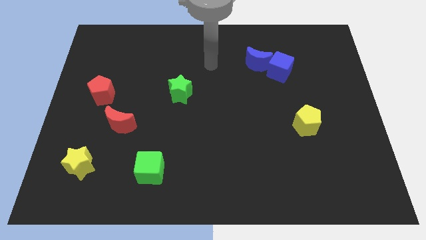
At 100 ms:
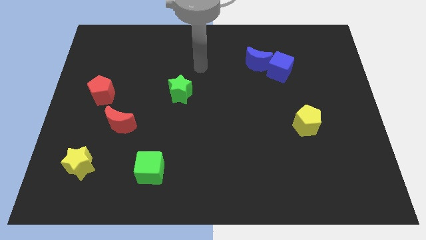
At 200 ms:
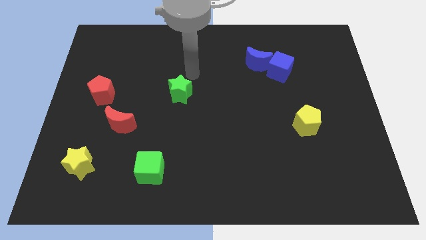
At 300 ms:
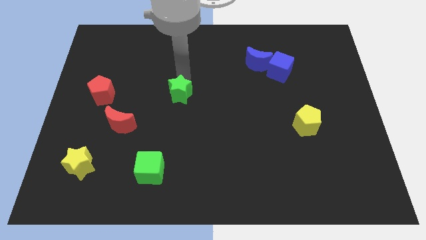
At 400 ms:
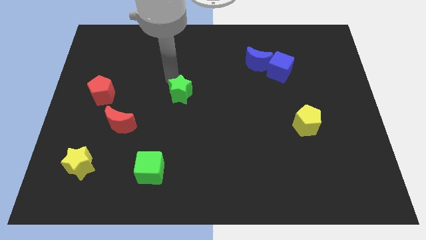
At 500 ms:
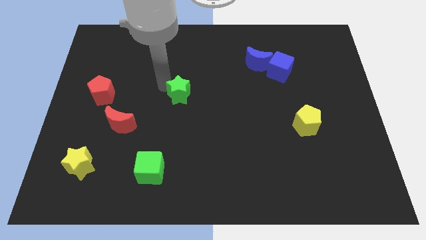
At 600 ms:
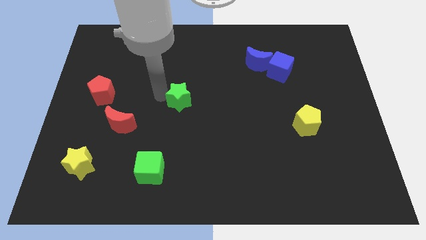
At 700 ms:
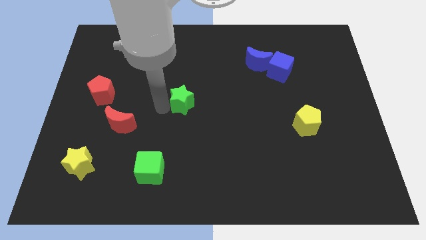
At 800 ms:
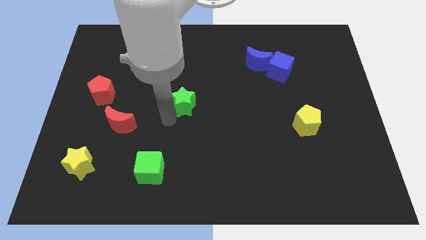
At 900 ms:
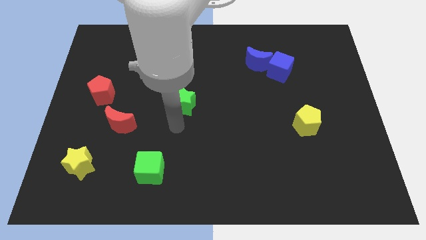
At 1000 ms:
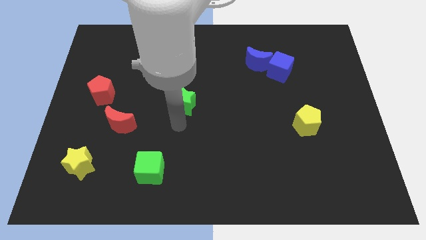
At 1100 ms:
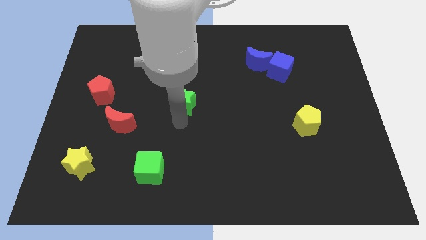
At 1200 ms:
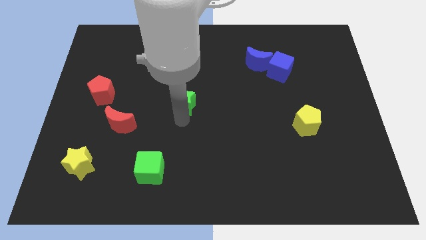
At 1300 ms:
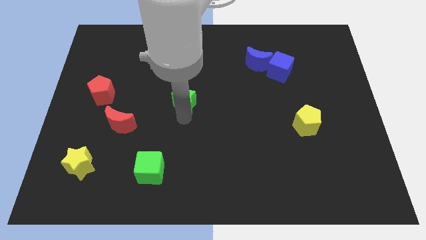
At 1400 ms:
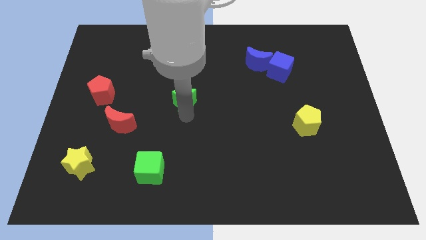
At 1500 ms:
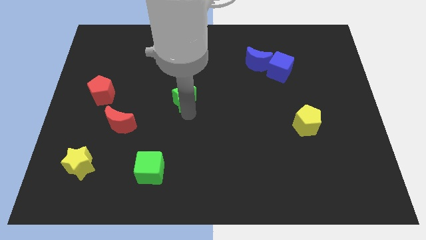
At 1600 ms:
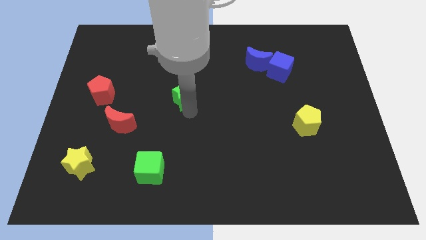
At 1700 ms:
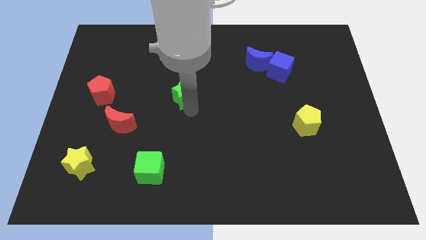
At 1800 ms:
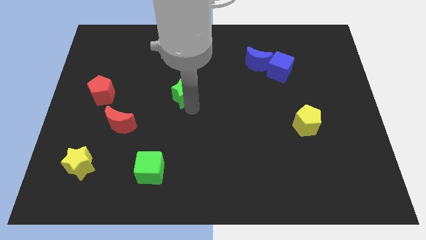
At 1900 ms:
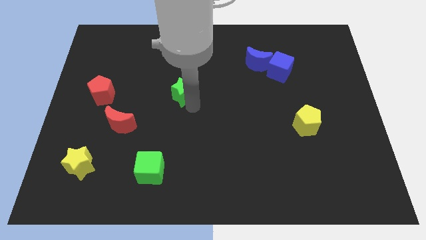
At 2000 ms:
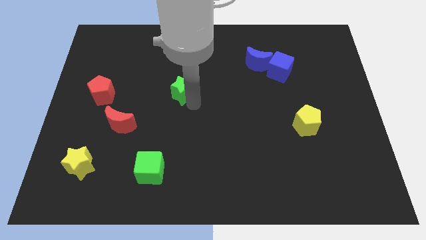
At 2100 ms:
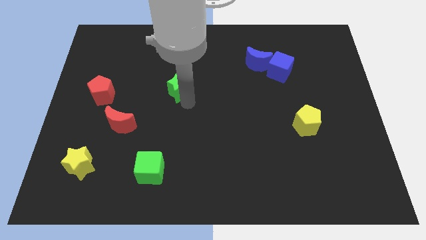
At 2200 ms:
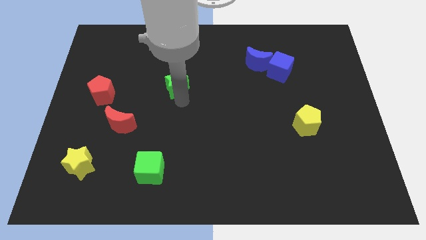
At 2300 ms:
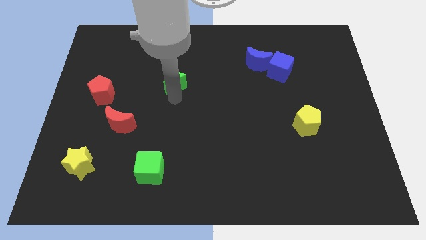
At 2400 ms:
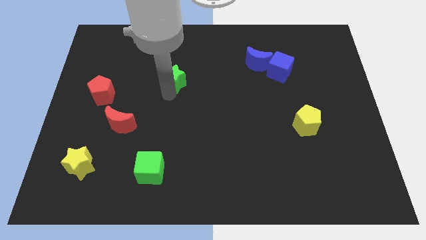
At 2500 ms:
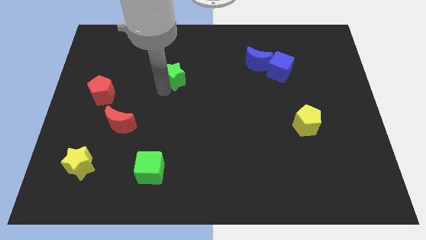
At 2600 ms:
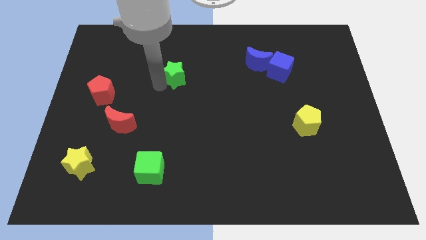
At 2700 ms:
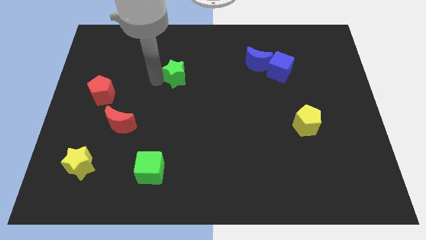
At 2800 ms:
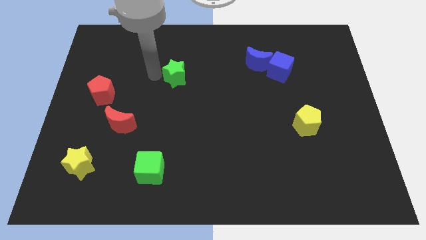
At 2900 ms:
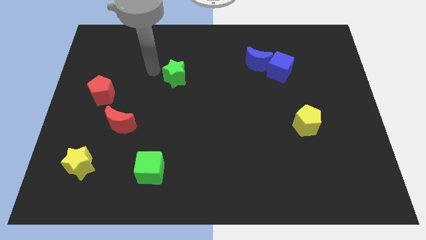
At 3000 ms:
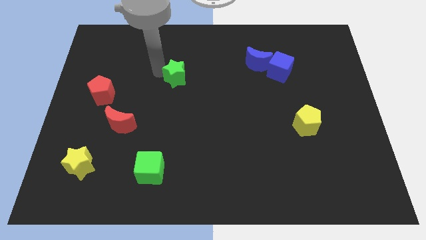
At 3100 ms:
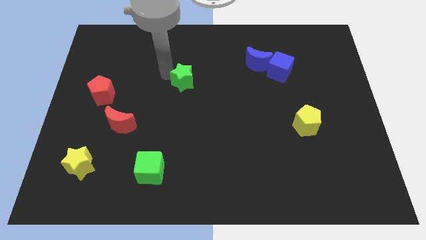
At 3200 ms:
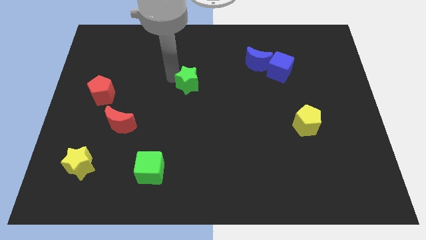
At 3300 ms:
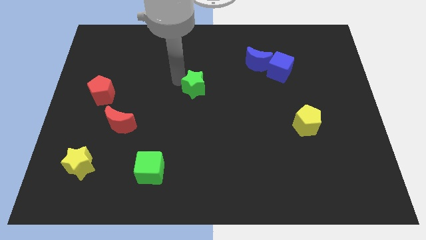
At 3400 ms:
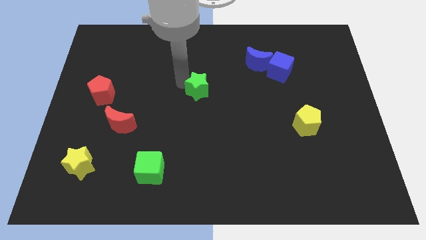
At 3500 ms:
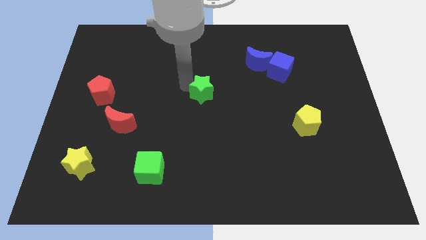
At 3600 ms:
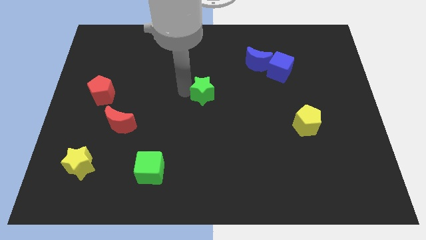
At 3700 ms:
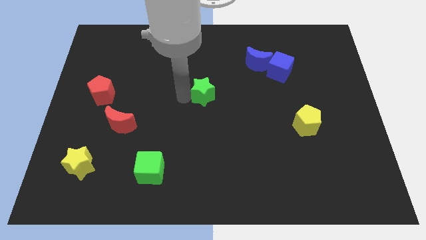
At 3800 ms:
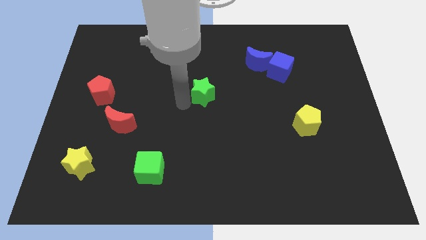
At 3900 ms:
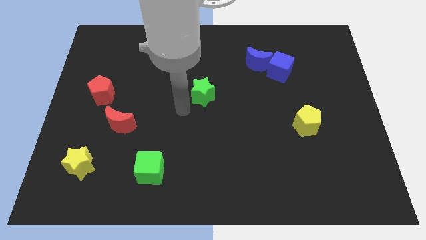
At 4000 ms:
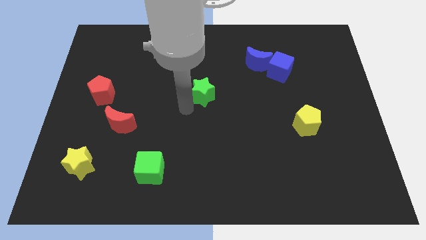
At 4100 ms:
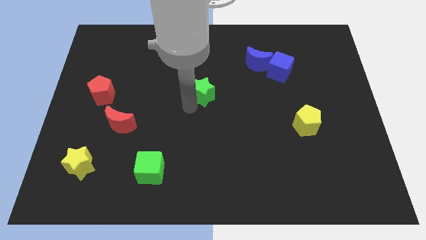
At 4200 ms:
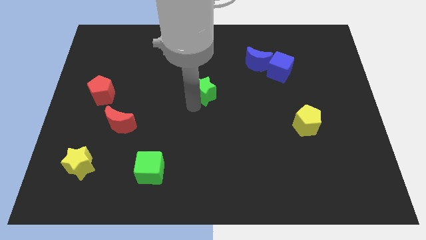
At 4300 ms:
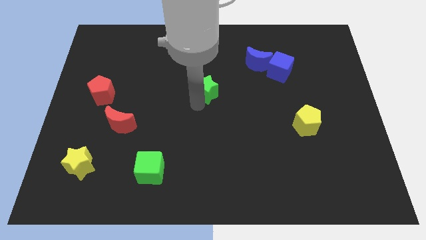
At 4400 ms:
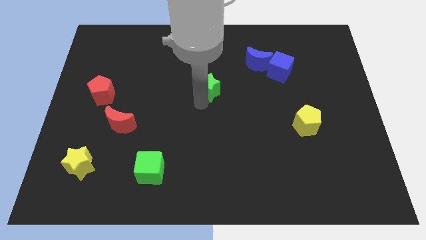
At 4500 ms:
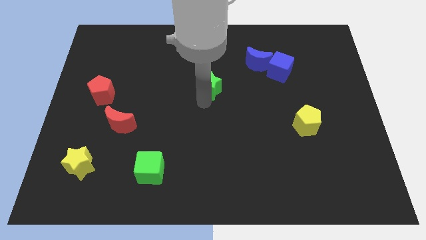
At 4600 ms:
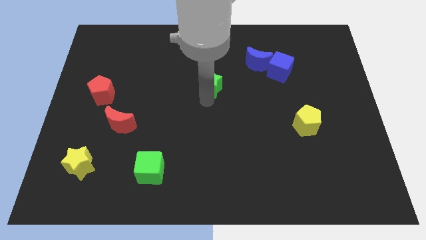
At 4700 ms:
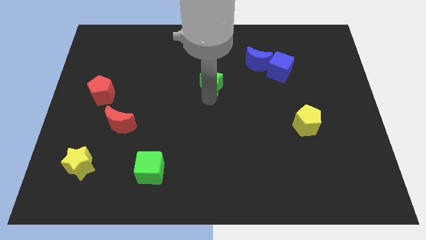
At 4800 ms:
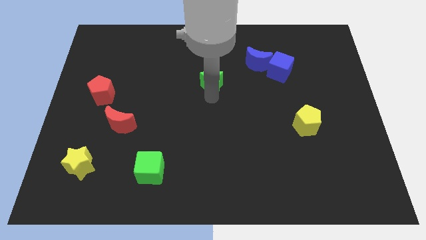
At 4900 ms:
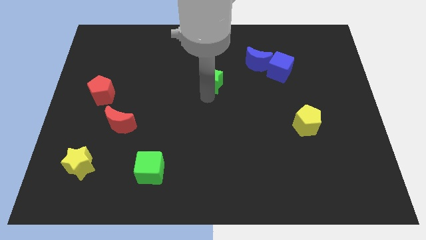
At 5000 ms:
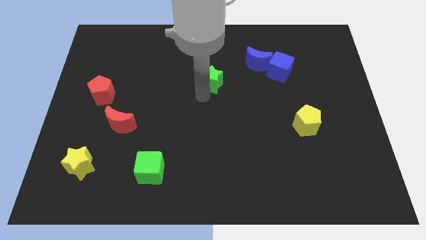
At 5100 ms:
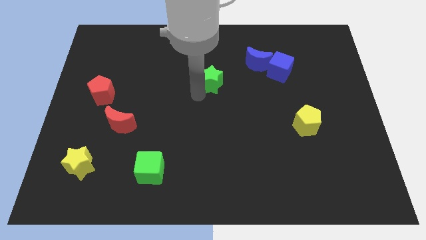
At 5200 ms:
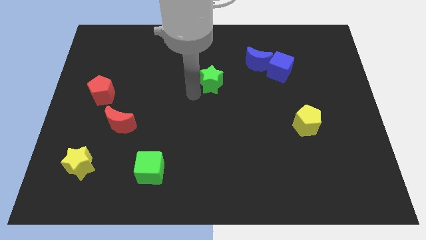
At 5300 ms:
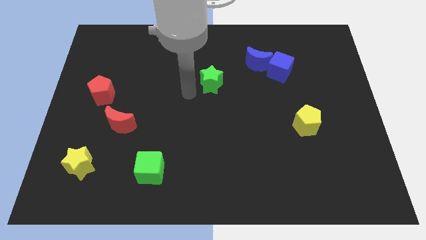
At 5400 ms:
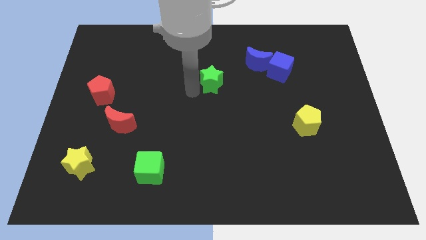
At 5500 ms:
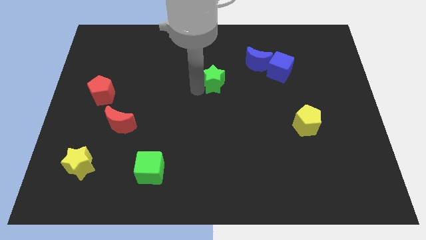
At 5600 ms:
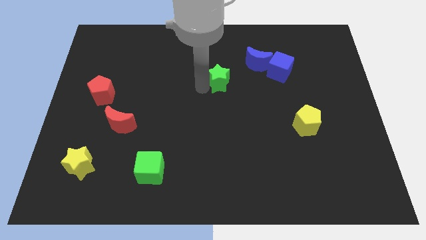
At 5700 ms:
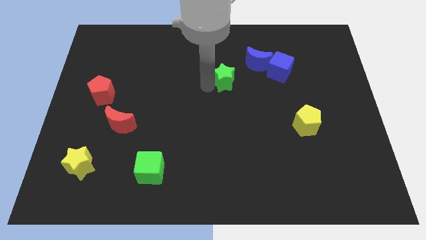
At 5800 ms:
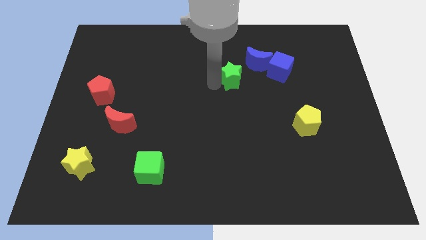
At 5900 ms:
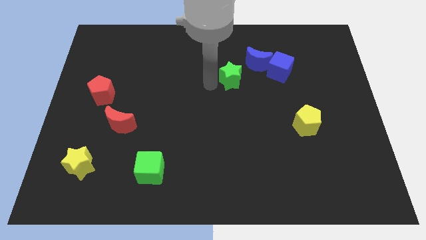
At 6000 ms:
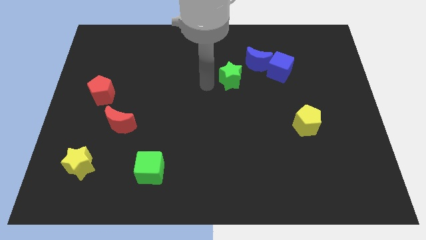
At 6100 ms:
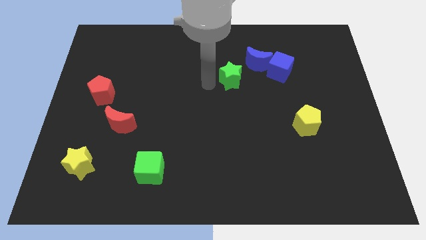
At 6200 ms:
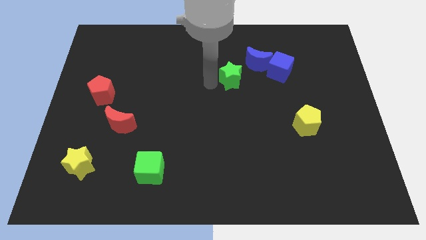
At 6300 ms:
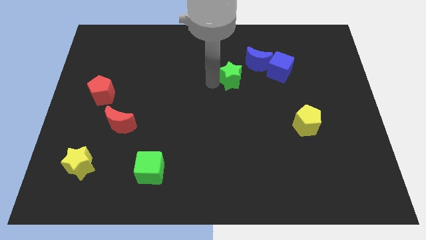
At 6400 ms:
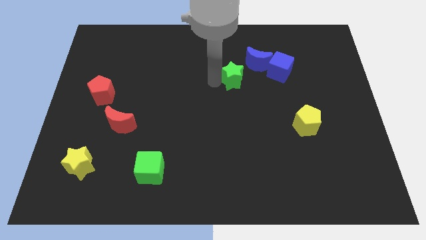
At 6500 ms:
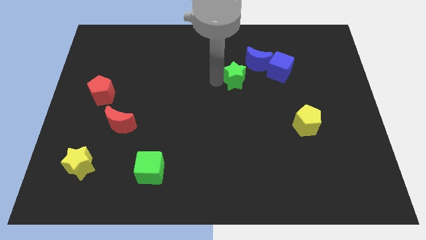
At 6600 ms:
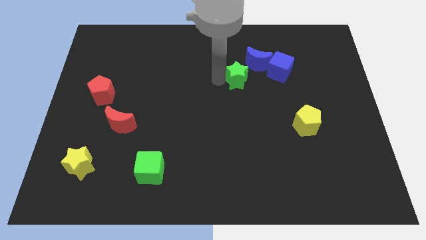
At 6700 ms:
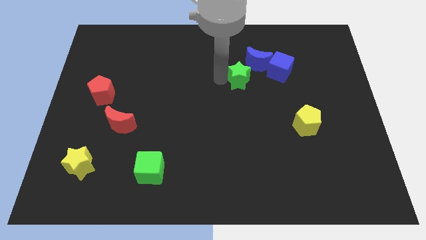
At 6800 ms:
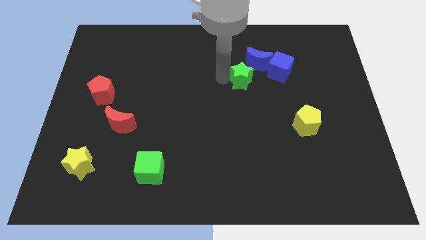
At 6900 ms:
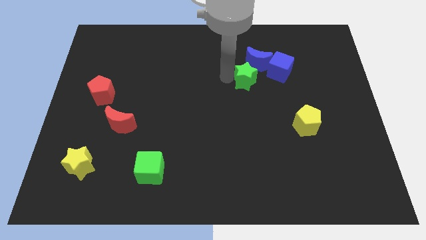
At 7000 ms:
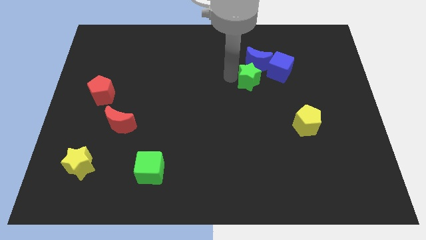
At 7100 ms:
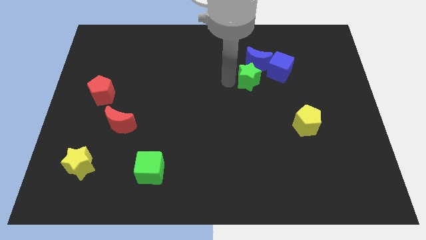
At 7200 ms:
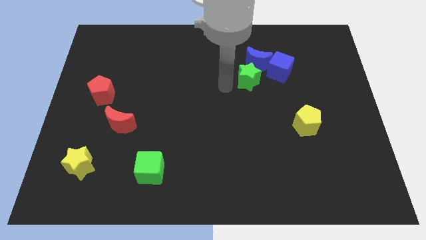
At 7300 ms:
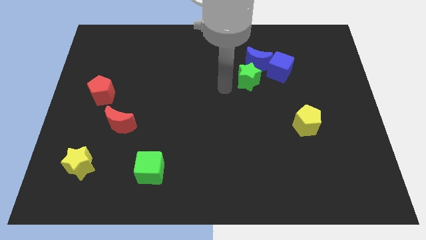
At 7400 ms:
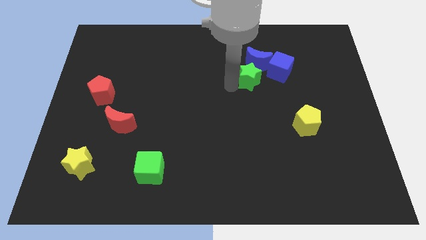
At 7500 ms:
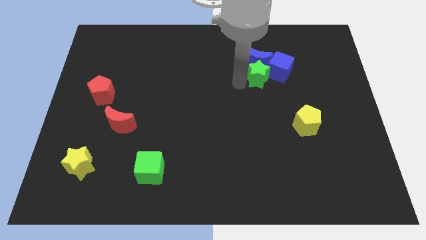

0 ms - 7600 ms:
push the green star next to the blue cube
